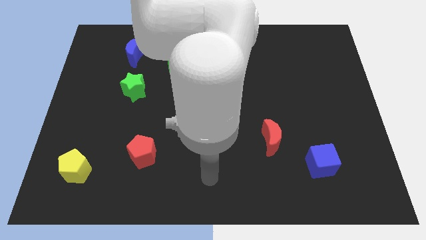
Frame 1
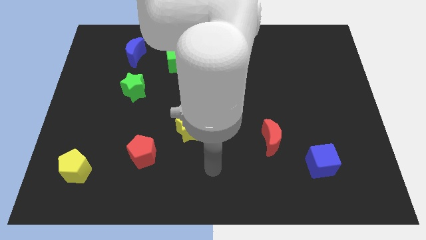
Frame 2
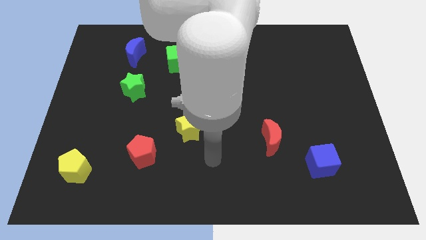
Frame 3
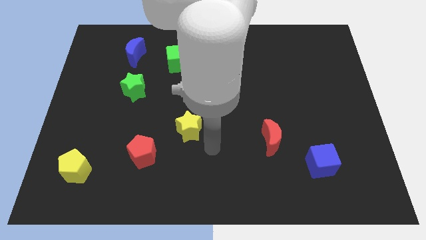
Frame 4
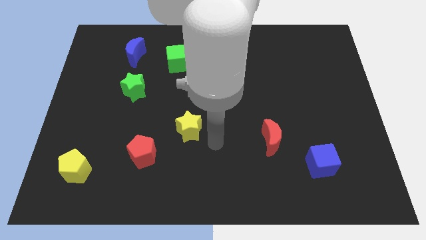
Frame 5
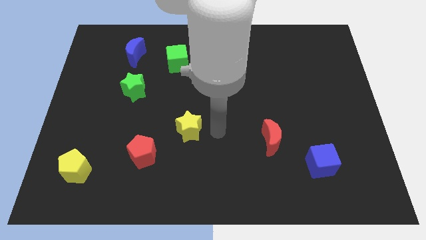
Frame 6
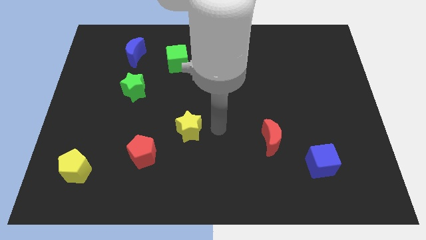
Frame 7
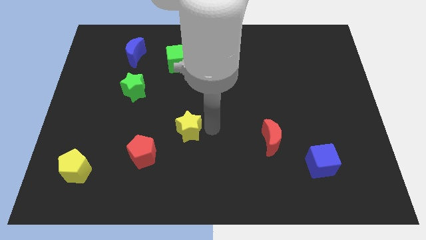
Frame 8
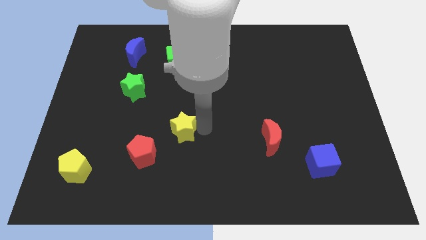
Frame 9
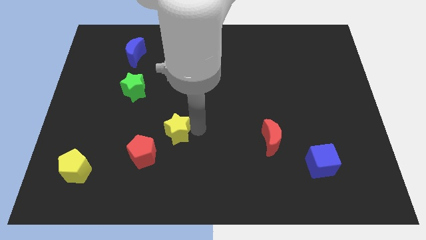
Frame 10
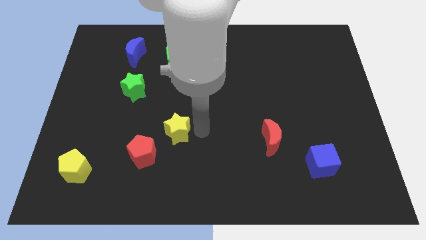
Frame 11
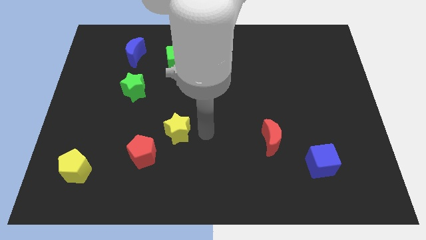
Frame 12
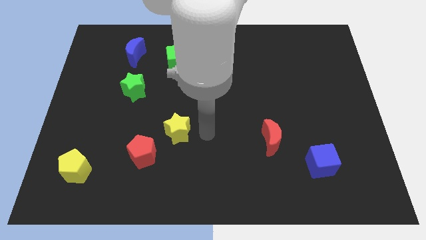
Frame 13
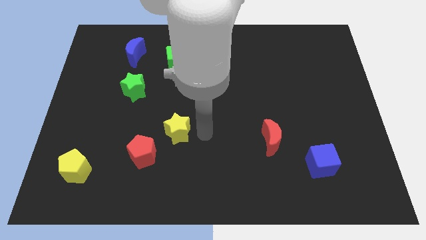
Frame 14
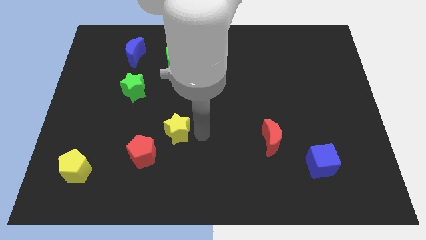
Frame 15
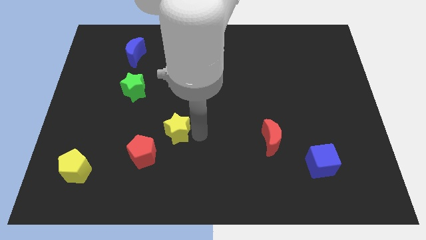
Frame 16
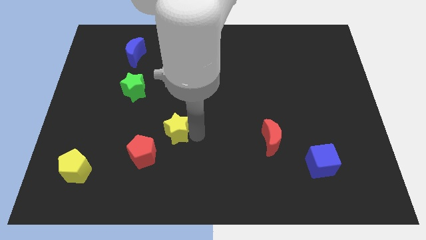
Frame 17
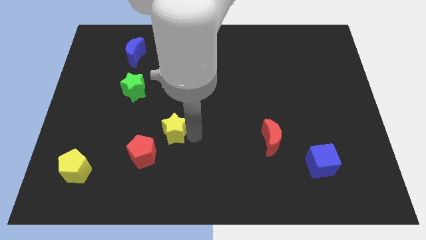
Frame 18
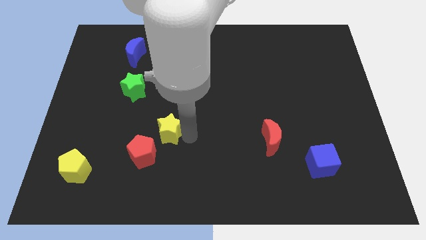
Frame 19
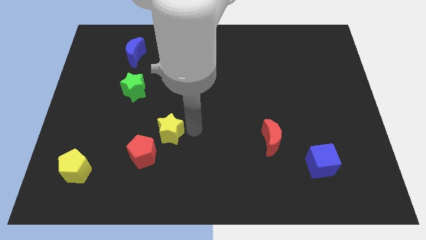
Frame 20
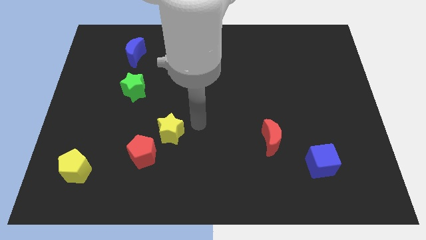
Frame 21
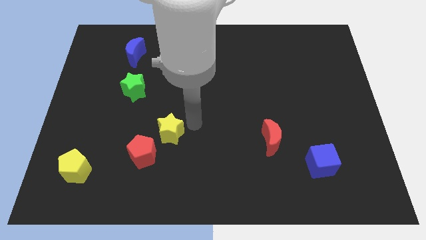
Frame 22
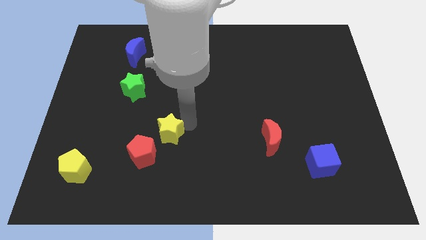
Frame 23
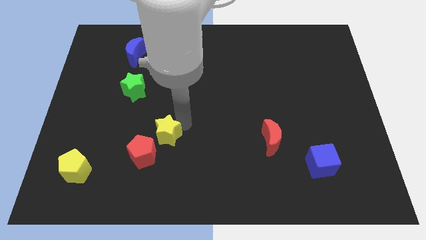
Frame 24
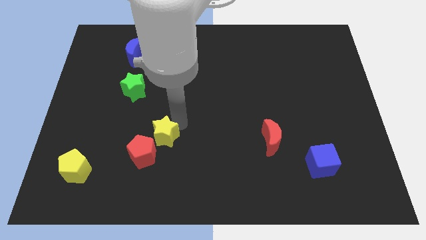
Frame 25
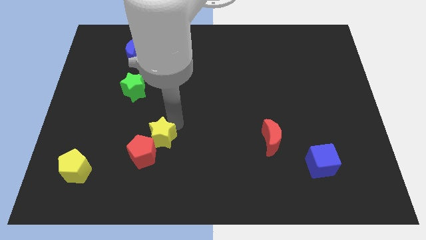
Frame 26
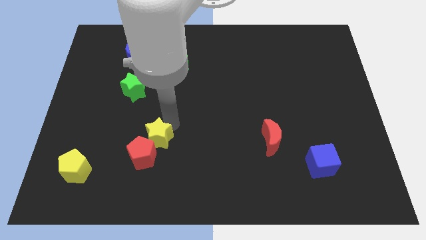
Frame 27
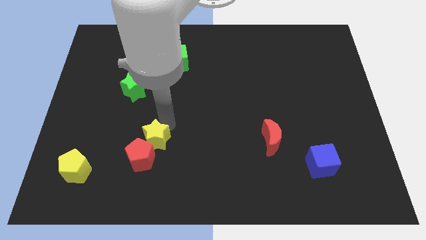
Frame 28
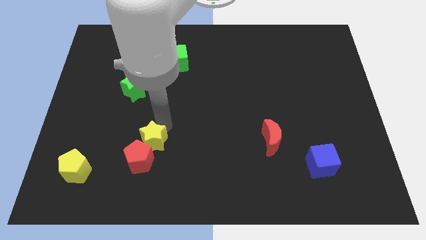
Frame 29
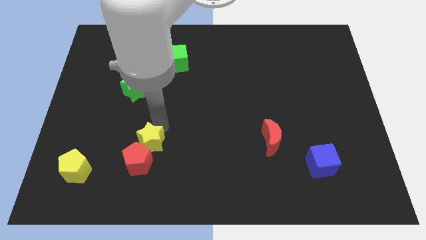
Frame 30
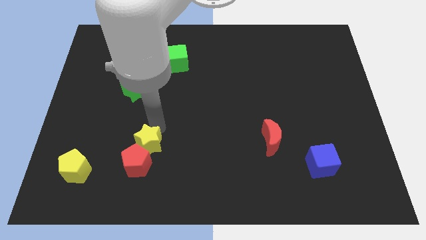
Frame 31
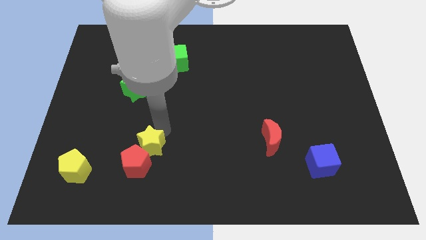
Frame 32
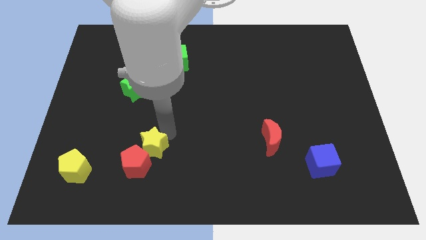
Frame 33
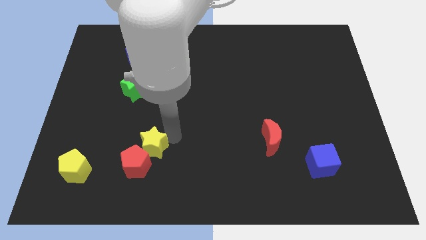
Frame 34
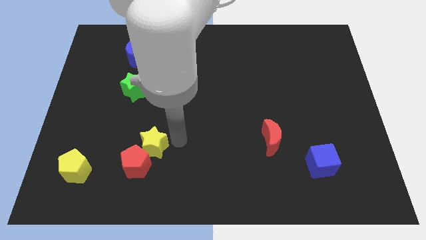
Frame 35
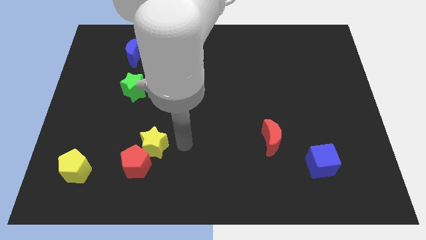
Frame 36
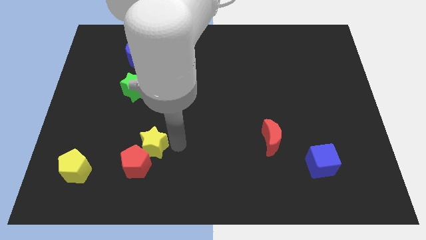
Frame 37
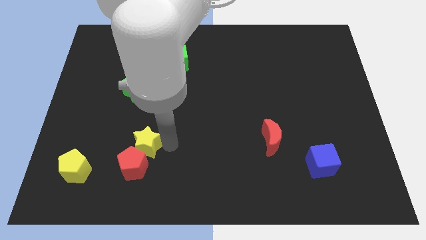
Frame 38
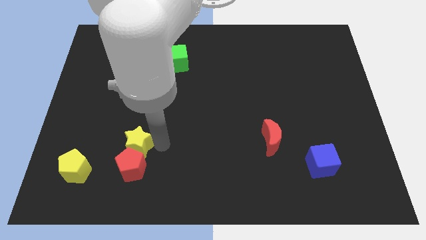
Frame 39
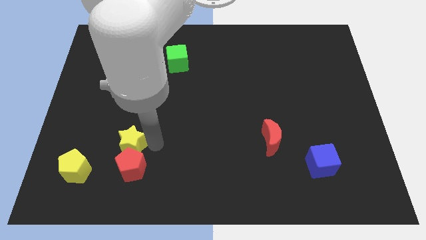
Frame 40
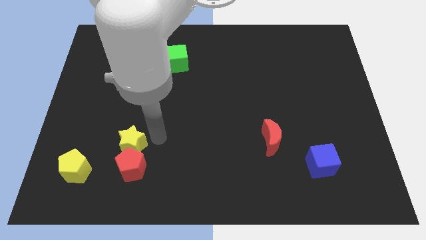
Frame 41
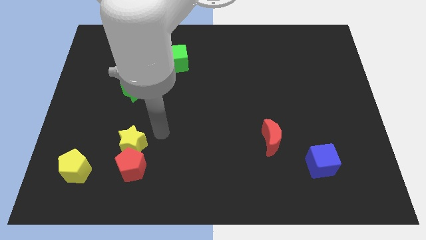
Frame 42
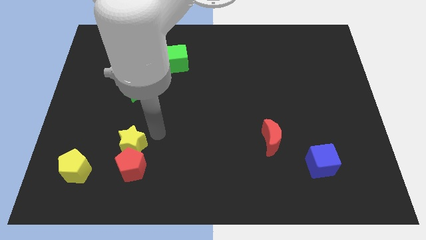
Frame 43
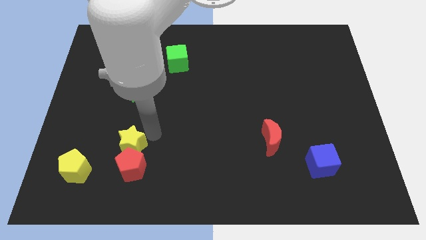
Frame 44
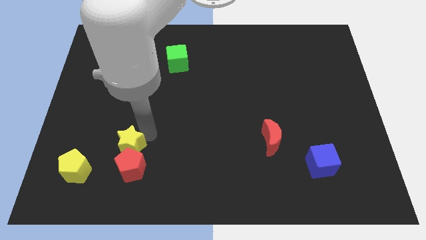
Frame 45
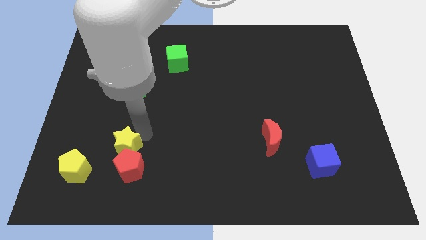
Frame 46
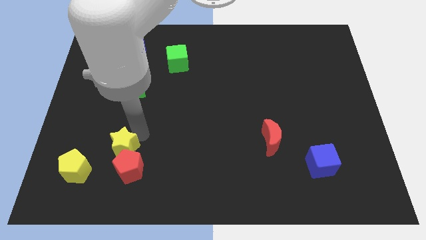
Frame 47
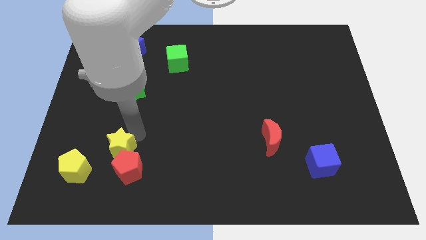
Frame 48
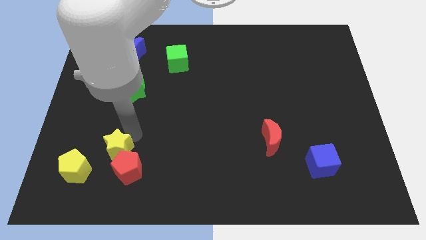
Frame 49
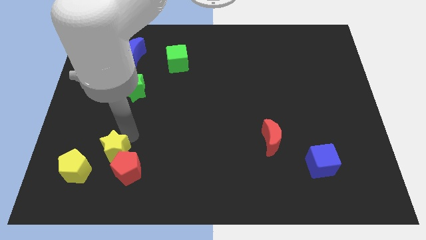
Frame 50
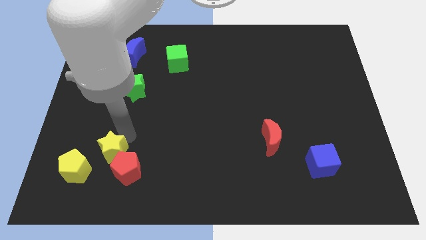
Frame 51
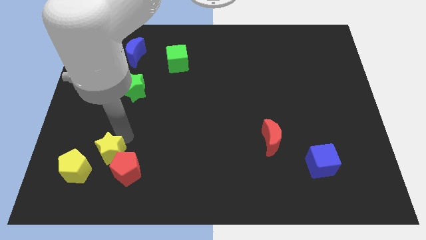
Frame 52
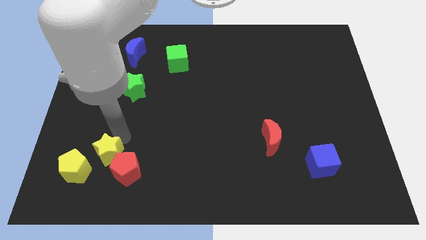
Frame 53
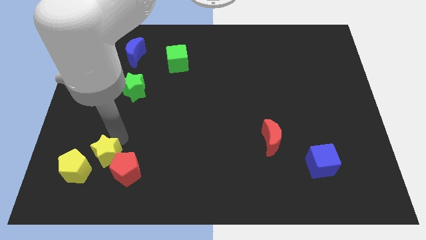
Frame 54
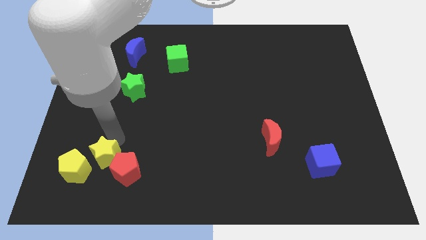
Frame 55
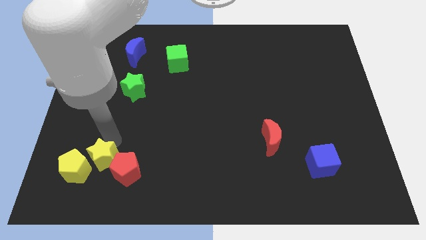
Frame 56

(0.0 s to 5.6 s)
put the yellow star close to the yellow pentagon

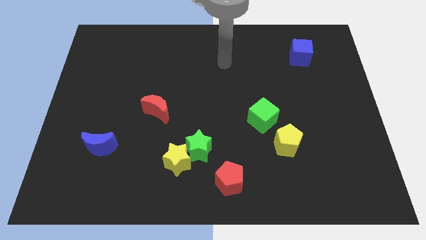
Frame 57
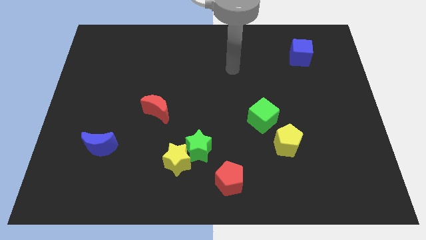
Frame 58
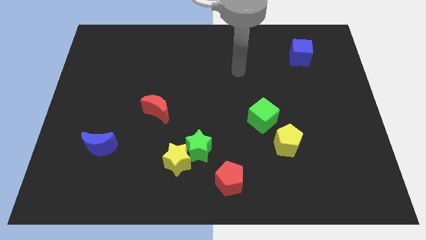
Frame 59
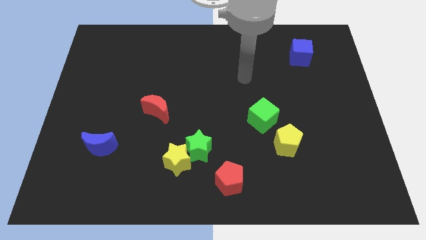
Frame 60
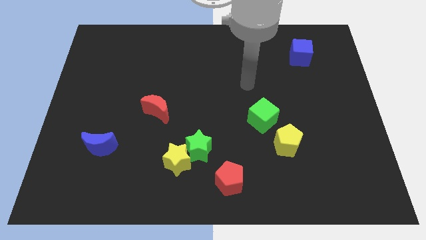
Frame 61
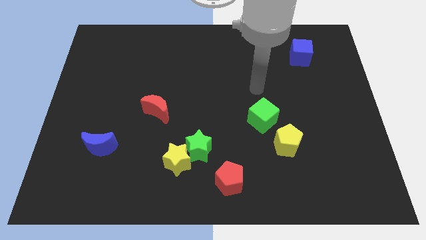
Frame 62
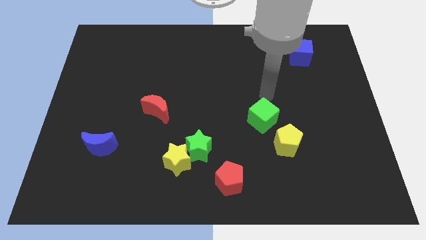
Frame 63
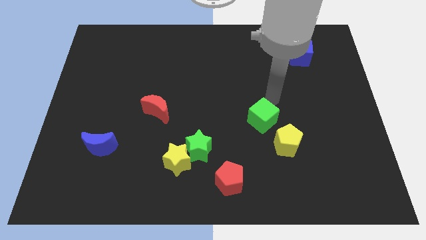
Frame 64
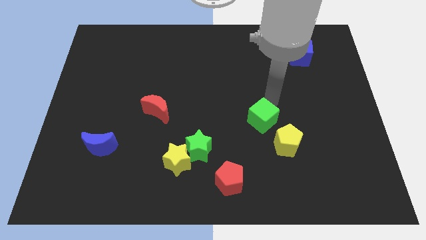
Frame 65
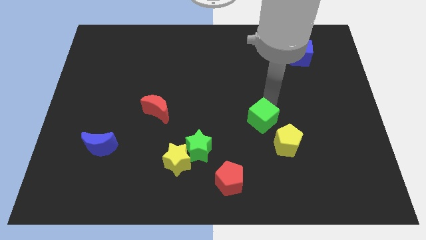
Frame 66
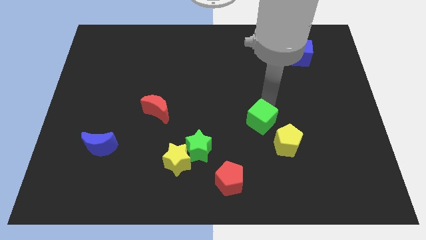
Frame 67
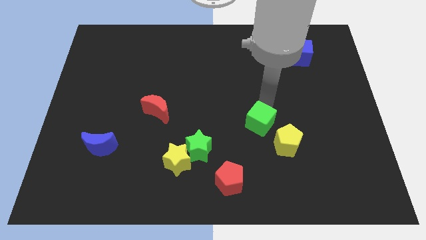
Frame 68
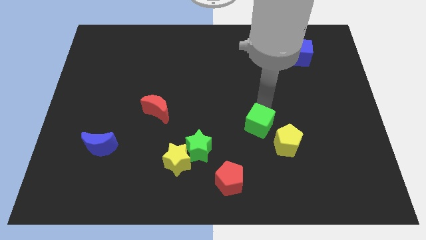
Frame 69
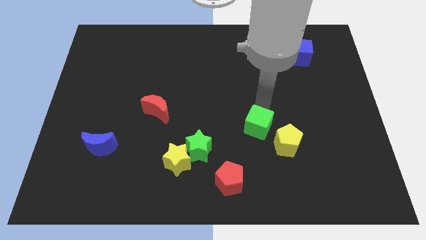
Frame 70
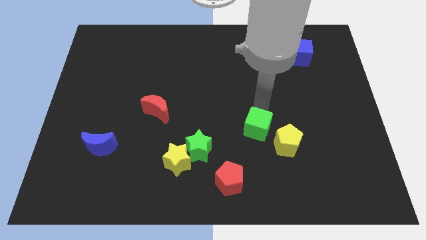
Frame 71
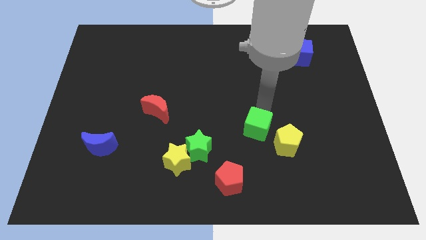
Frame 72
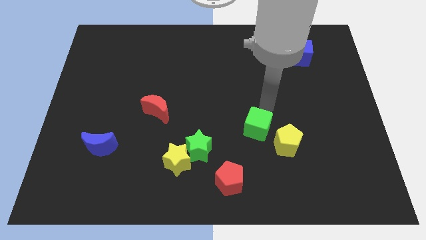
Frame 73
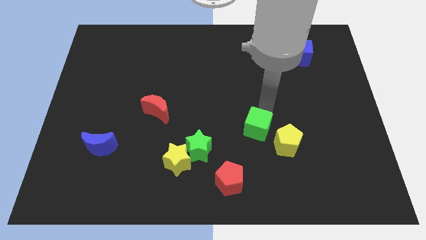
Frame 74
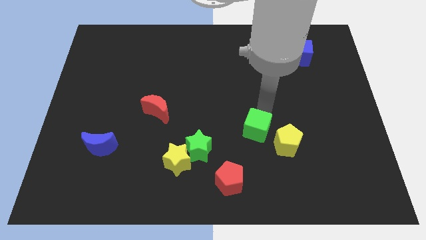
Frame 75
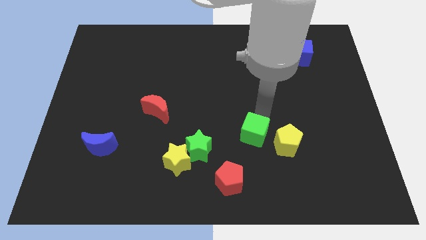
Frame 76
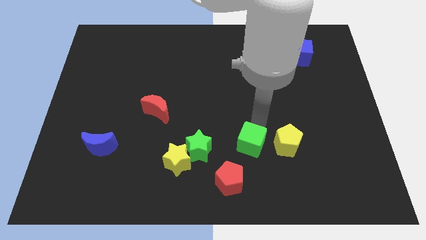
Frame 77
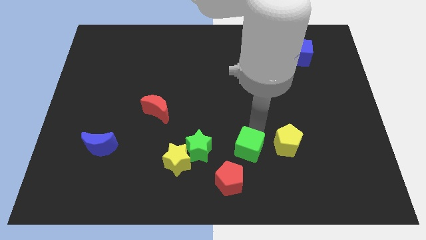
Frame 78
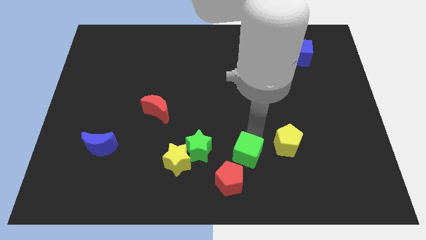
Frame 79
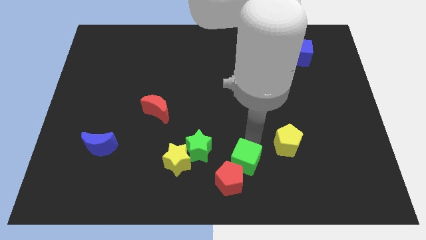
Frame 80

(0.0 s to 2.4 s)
slide the green cube to the red pentagon
